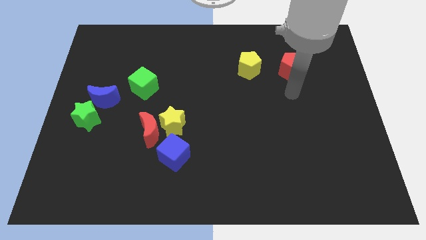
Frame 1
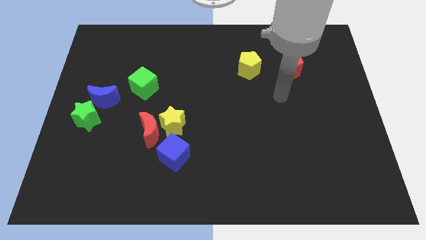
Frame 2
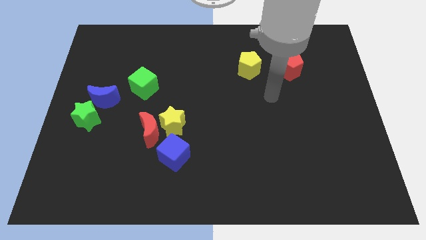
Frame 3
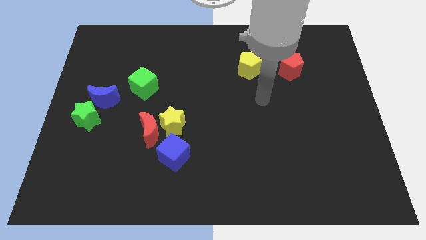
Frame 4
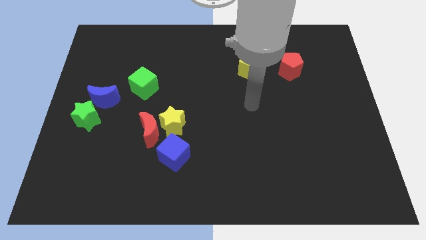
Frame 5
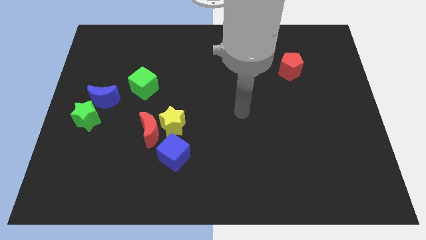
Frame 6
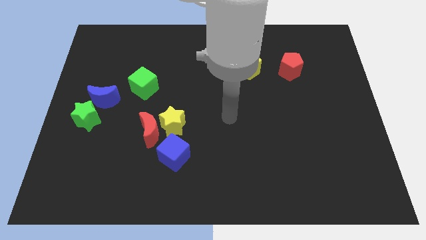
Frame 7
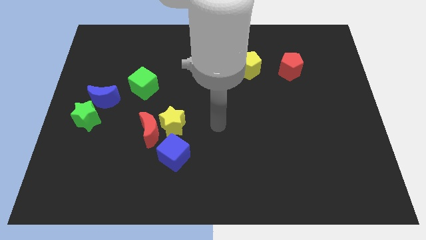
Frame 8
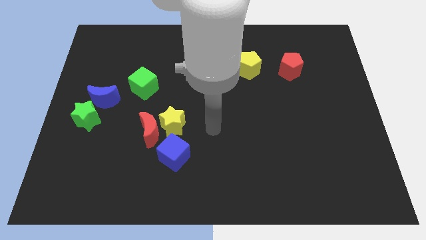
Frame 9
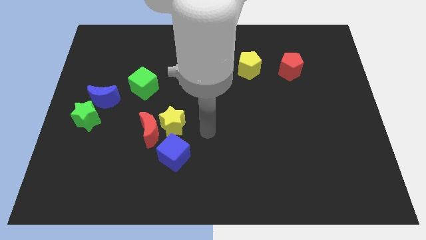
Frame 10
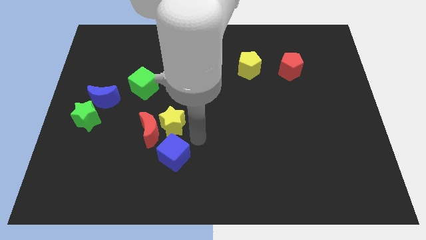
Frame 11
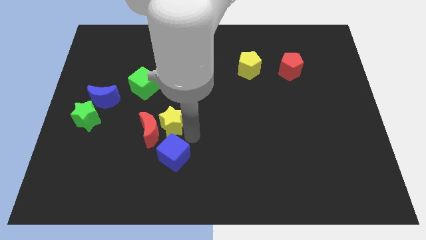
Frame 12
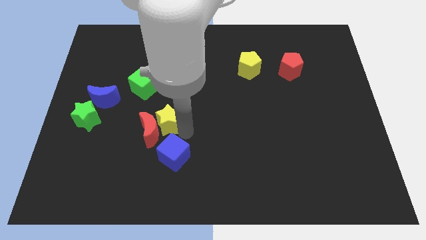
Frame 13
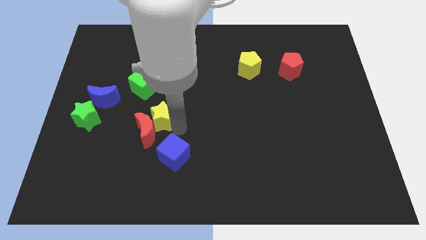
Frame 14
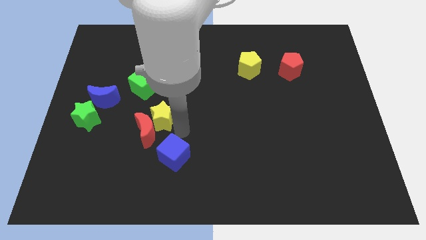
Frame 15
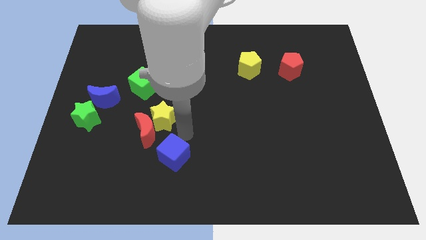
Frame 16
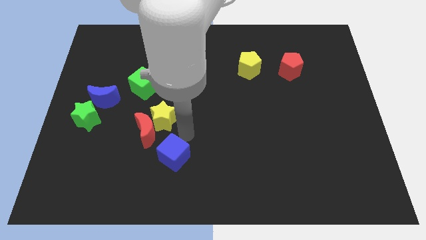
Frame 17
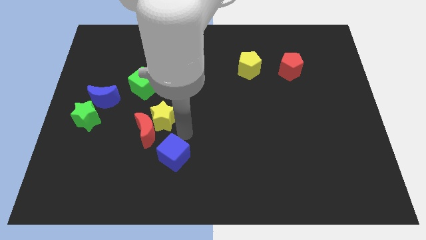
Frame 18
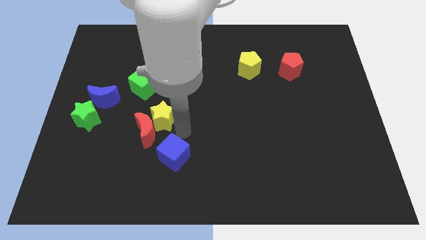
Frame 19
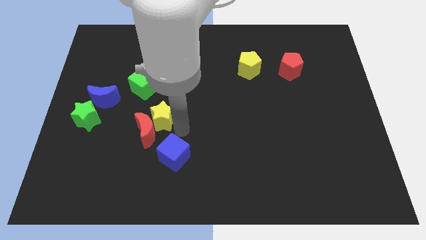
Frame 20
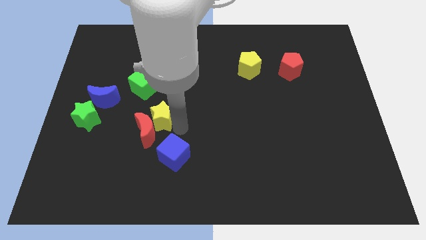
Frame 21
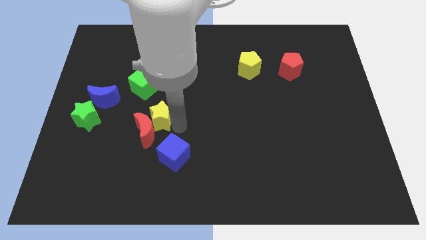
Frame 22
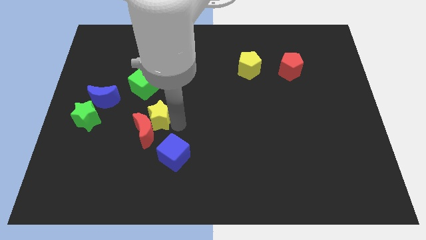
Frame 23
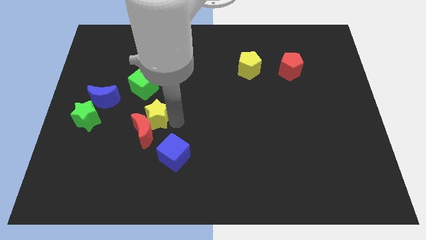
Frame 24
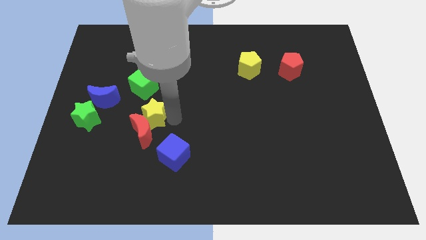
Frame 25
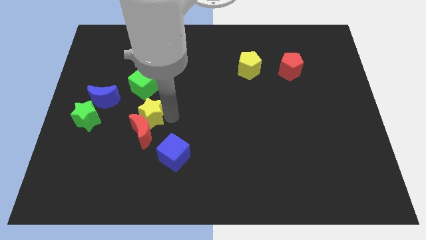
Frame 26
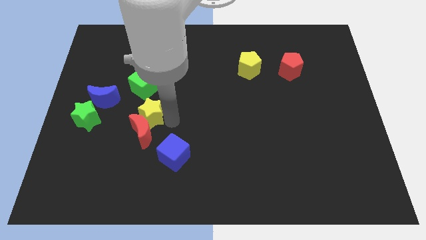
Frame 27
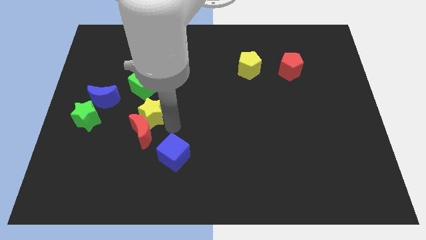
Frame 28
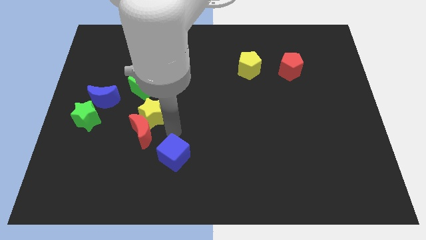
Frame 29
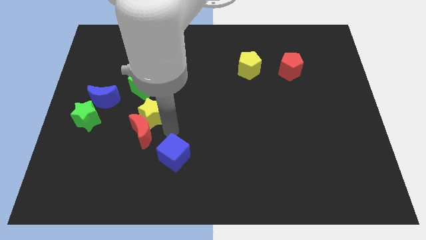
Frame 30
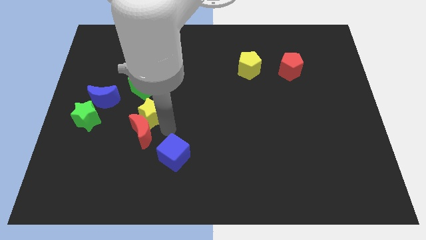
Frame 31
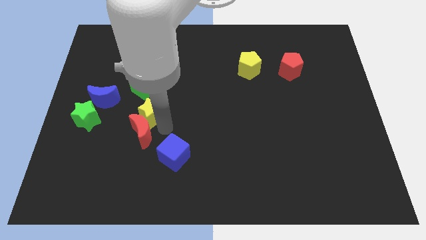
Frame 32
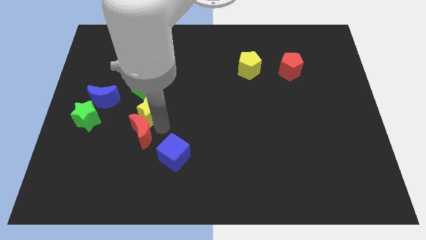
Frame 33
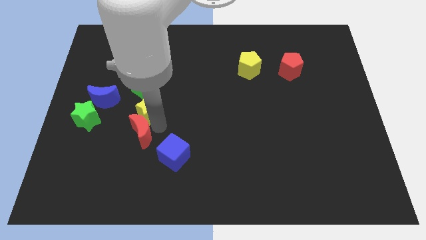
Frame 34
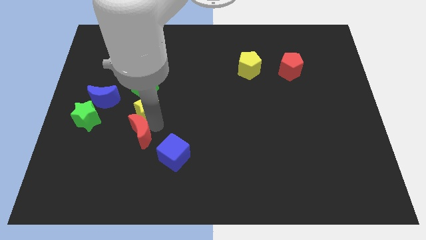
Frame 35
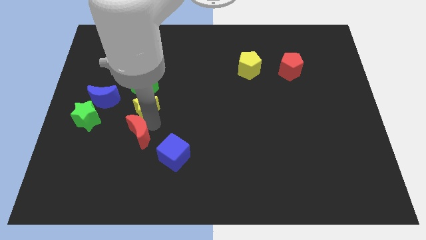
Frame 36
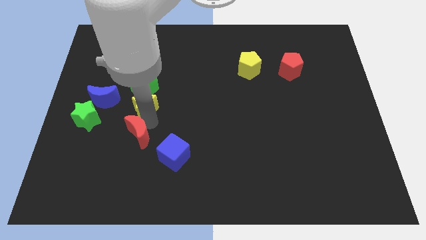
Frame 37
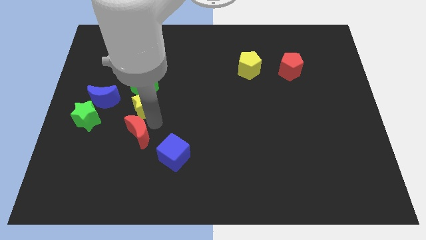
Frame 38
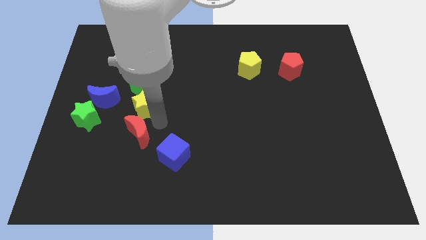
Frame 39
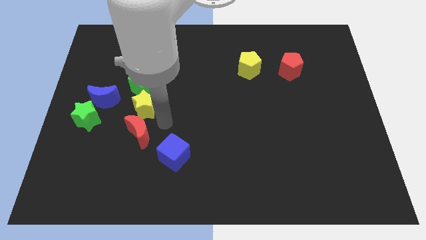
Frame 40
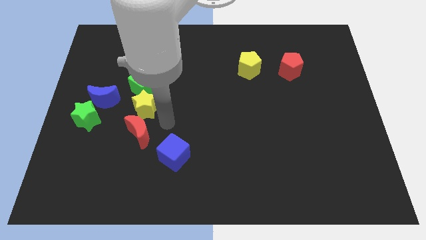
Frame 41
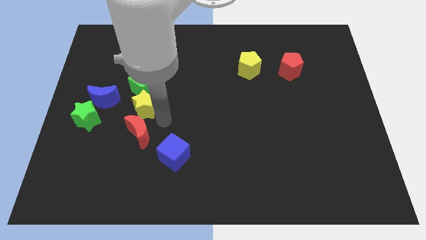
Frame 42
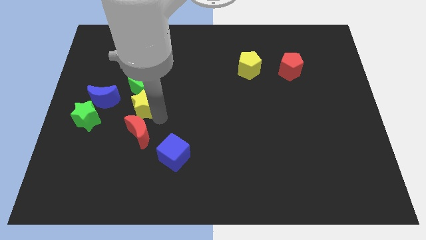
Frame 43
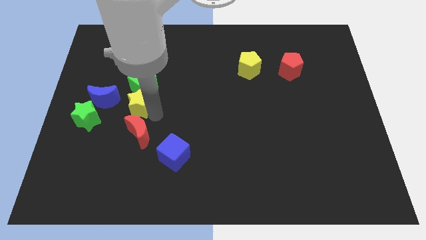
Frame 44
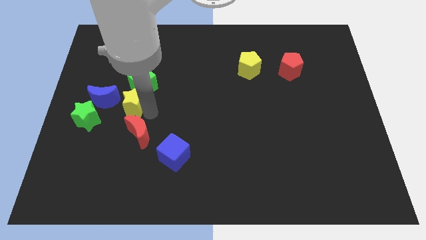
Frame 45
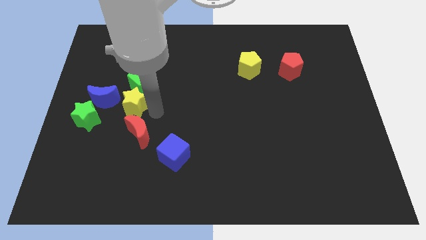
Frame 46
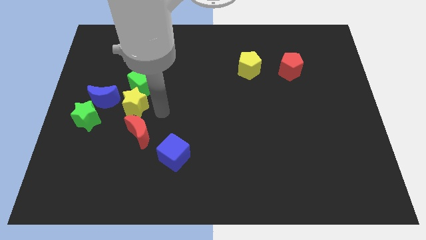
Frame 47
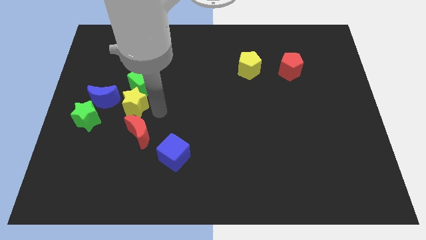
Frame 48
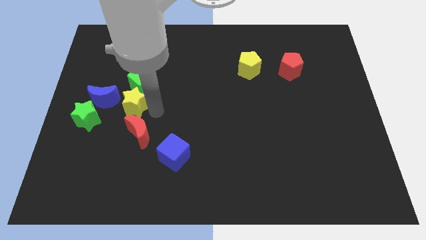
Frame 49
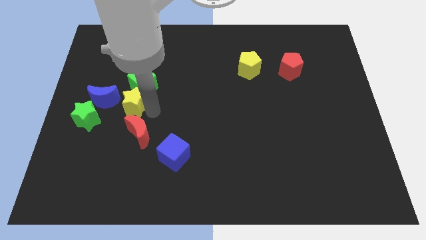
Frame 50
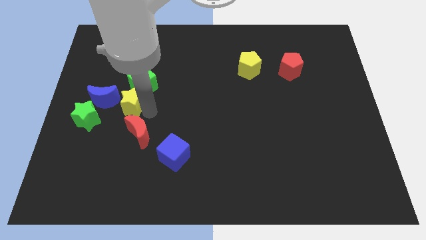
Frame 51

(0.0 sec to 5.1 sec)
put the yellow star to the top right side of the green star

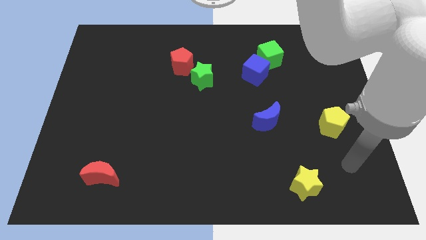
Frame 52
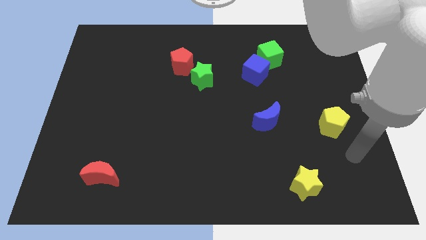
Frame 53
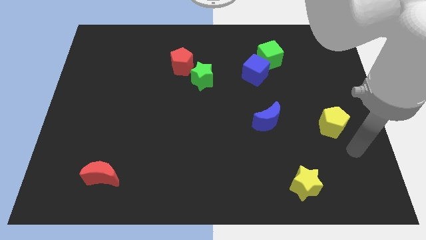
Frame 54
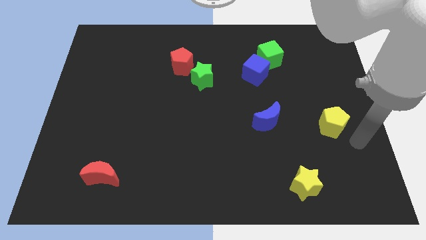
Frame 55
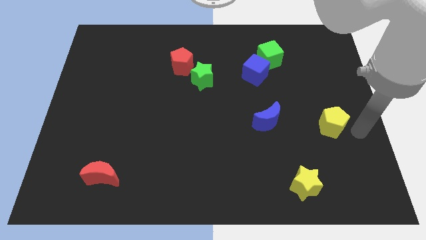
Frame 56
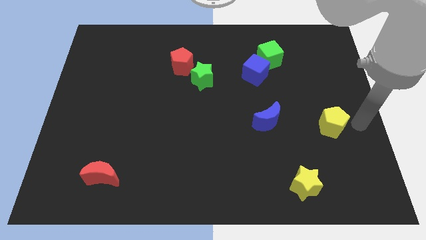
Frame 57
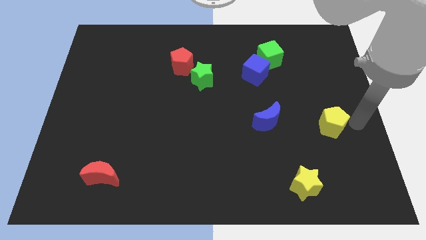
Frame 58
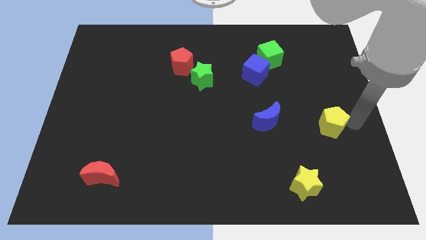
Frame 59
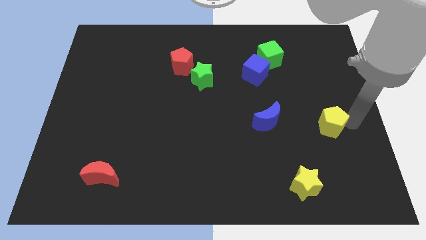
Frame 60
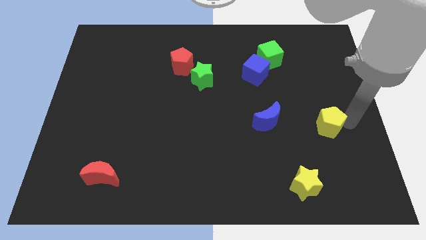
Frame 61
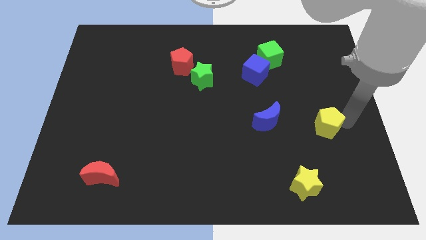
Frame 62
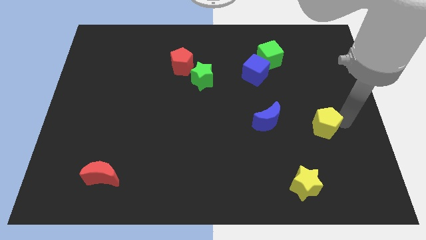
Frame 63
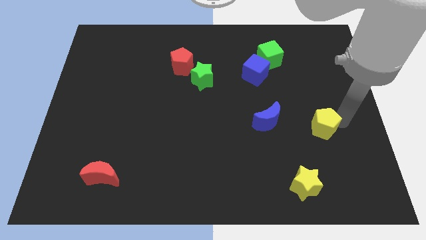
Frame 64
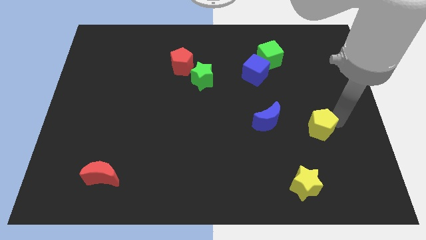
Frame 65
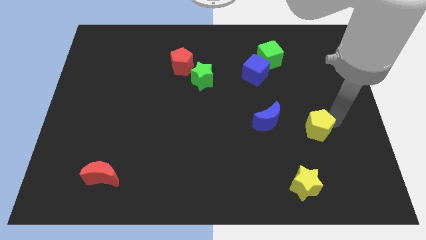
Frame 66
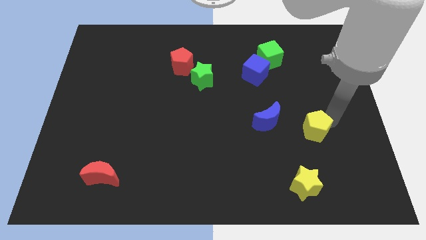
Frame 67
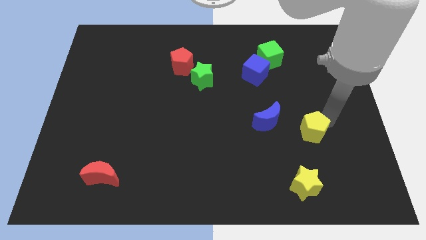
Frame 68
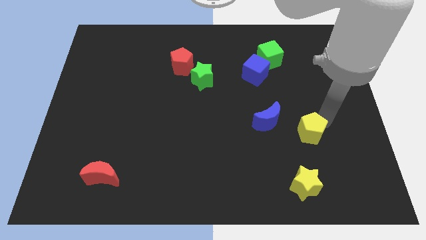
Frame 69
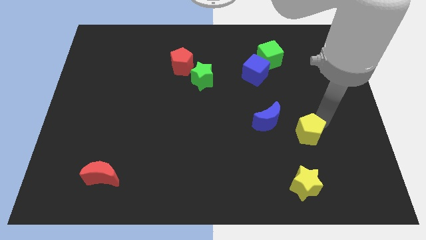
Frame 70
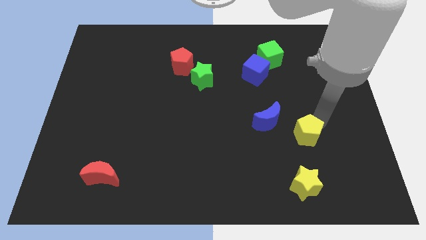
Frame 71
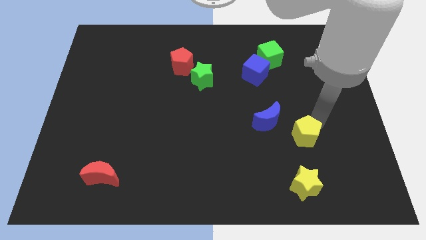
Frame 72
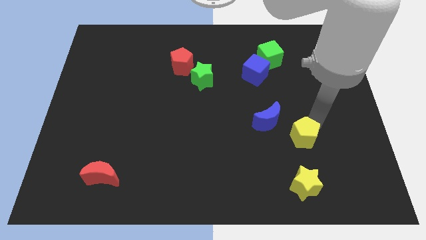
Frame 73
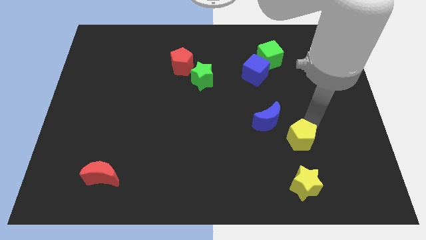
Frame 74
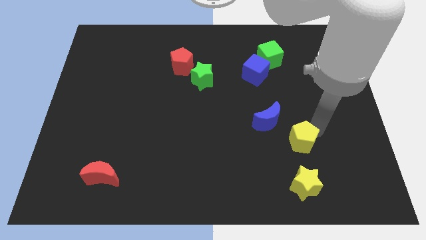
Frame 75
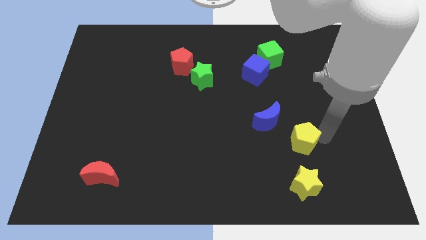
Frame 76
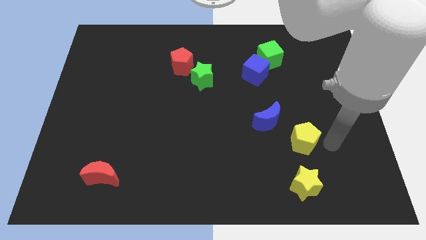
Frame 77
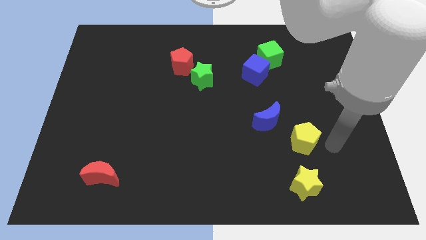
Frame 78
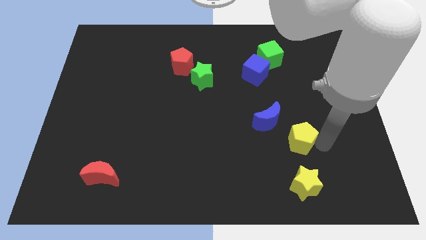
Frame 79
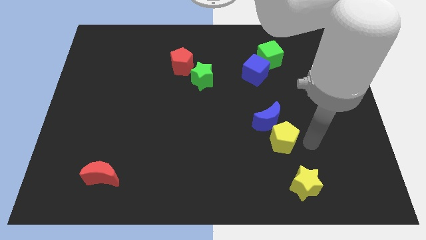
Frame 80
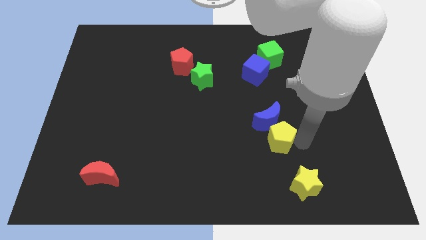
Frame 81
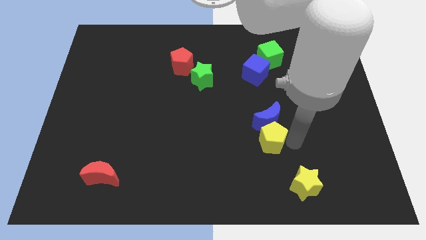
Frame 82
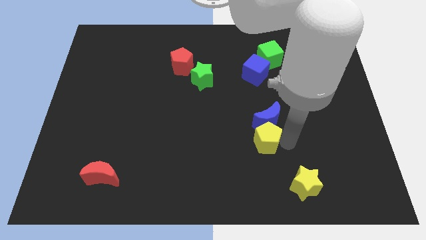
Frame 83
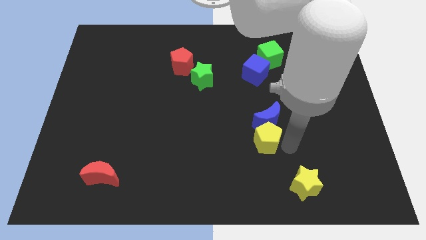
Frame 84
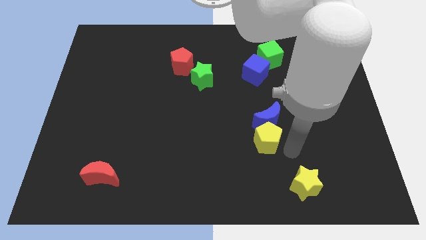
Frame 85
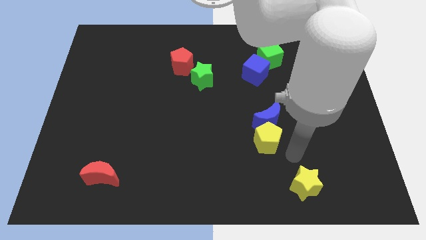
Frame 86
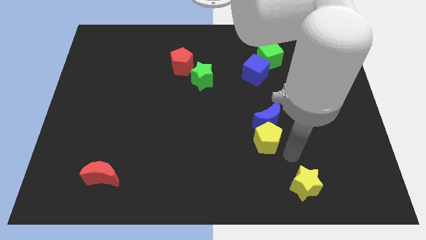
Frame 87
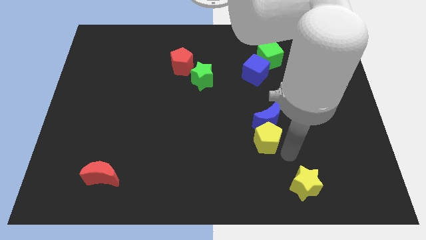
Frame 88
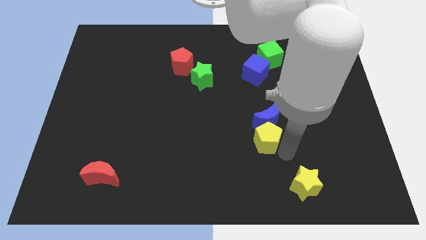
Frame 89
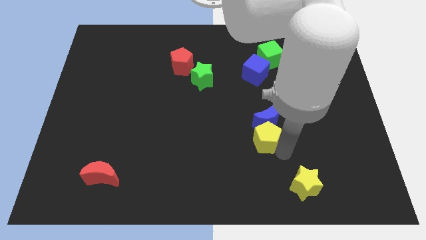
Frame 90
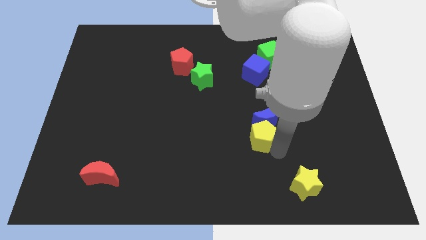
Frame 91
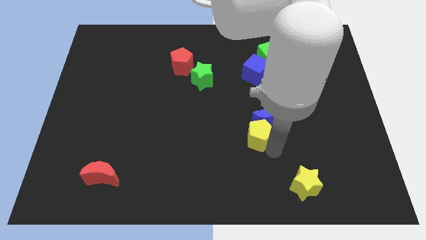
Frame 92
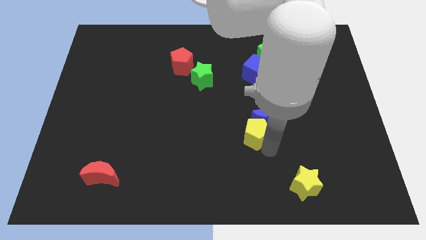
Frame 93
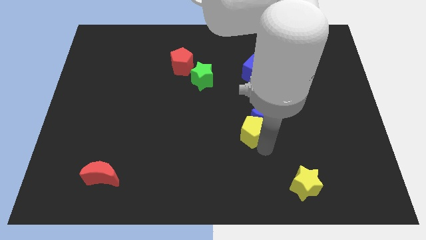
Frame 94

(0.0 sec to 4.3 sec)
push the yellow pentagon just left of the blue moon
